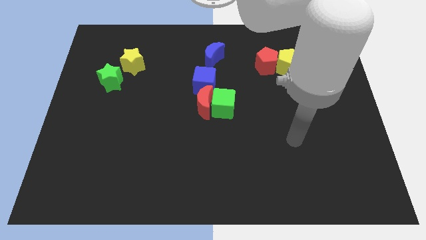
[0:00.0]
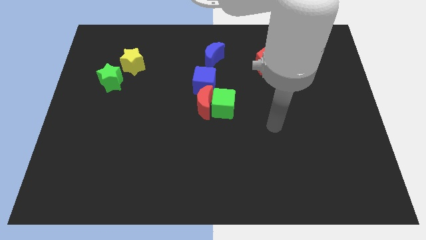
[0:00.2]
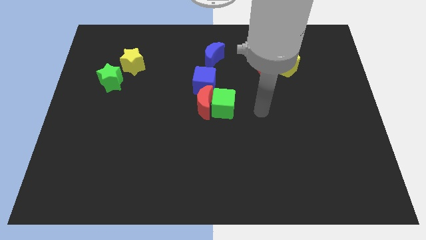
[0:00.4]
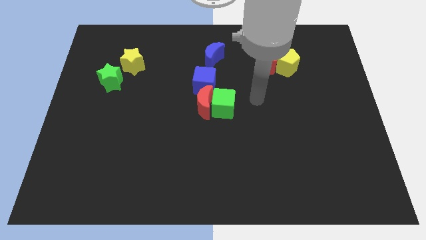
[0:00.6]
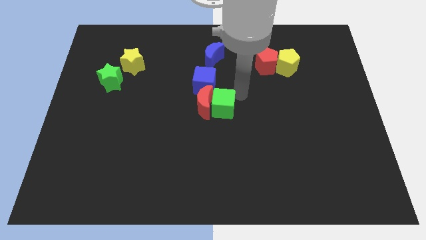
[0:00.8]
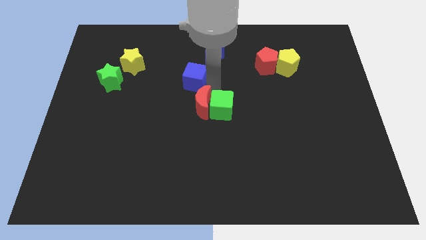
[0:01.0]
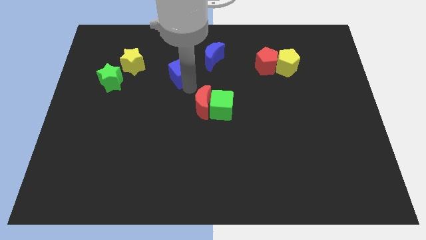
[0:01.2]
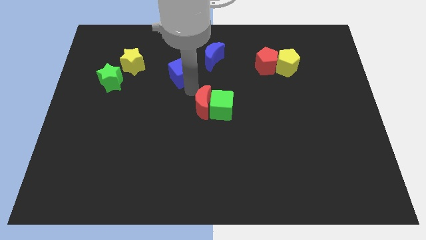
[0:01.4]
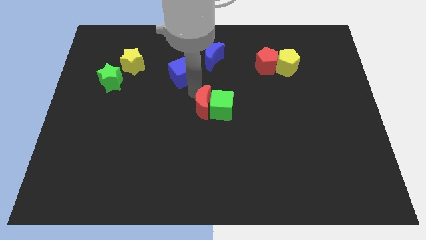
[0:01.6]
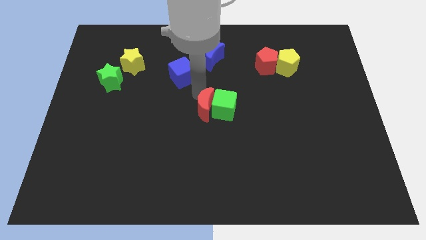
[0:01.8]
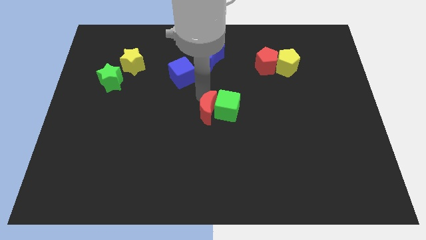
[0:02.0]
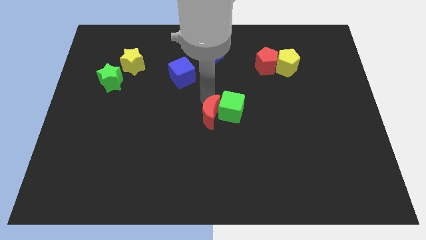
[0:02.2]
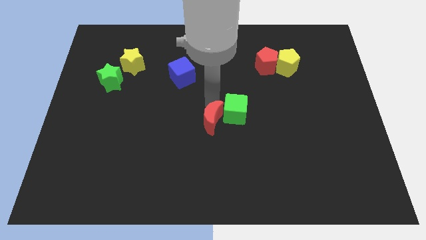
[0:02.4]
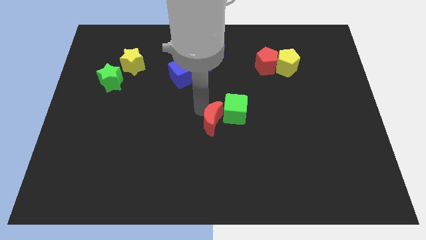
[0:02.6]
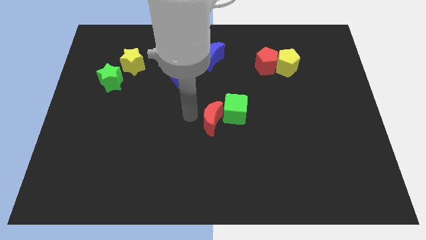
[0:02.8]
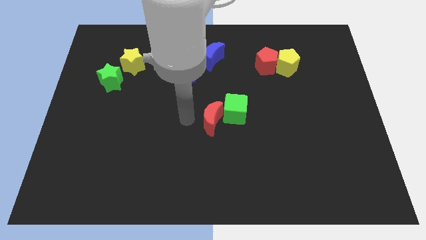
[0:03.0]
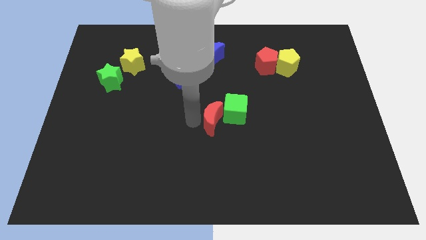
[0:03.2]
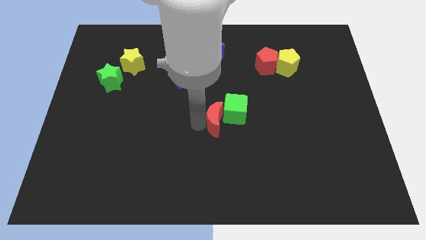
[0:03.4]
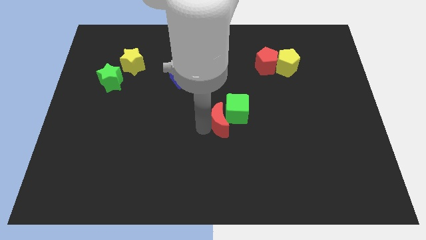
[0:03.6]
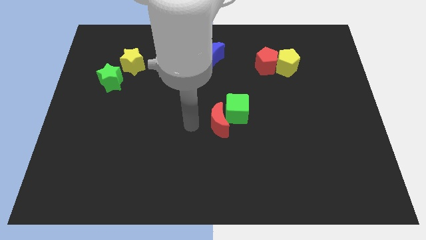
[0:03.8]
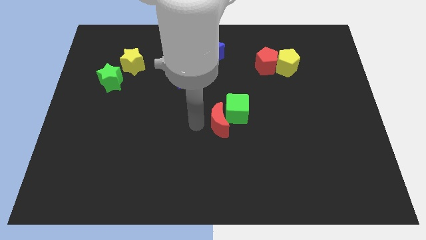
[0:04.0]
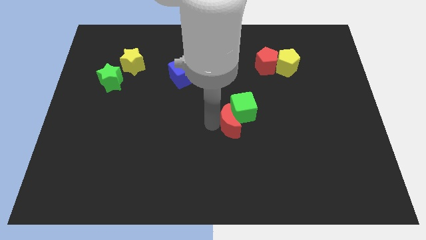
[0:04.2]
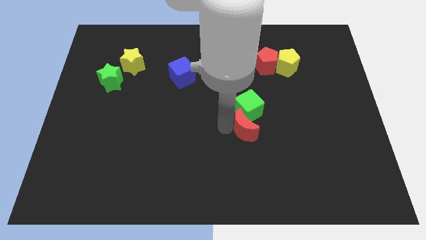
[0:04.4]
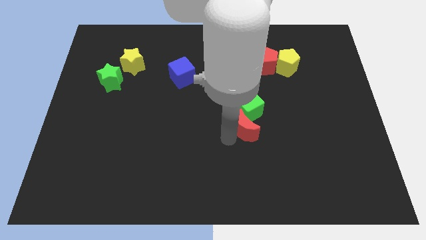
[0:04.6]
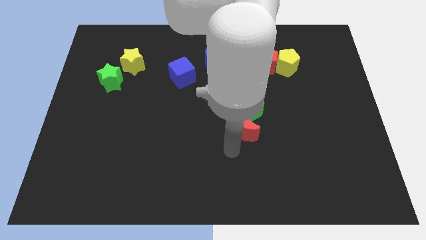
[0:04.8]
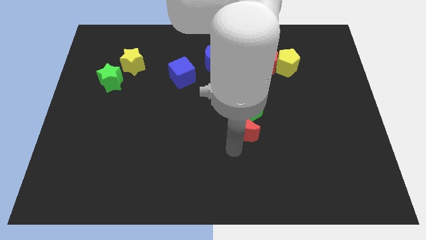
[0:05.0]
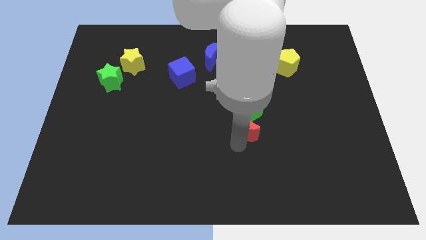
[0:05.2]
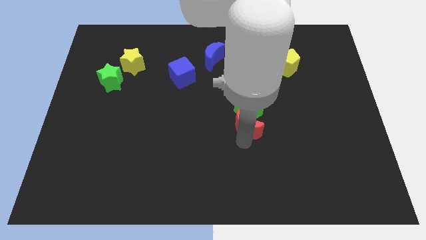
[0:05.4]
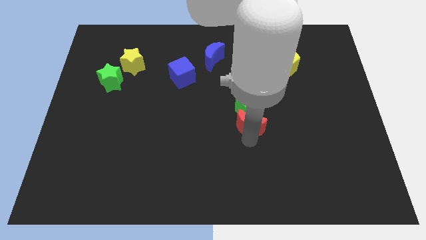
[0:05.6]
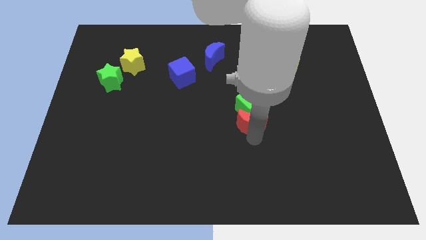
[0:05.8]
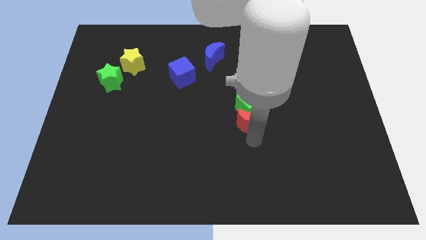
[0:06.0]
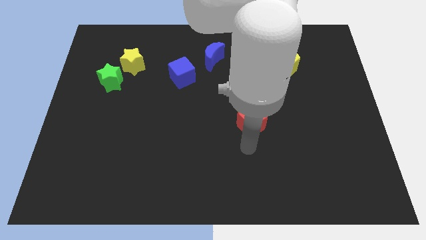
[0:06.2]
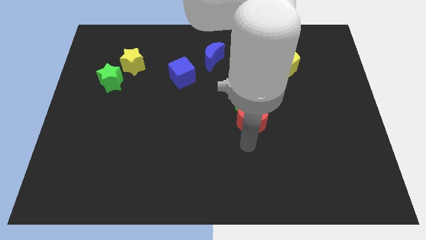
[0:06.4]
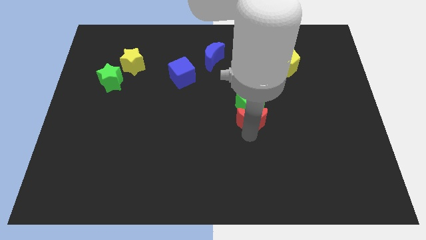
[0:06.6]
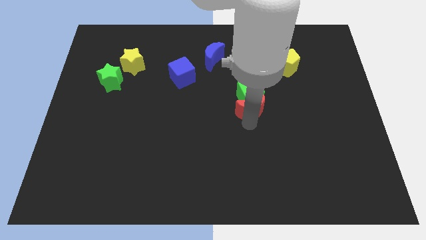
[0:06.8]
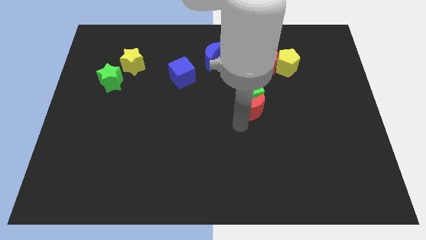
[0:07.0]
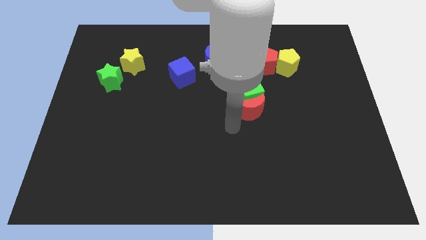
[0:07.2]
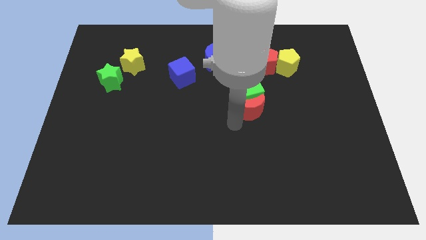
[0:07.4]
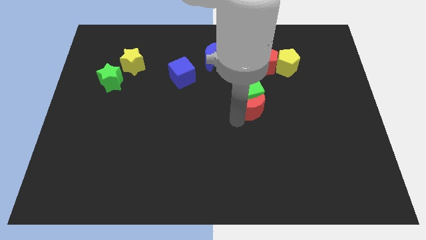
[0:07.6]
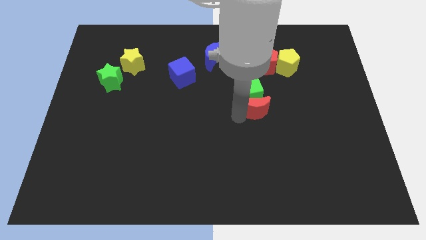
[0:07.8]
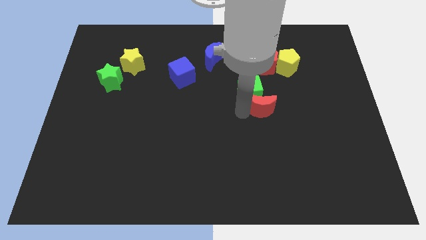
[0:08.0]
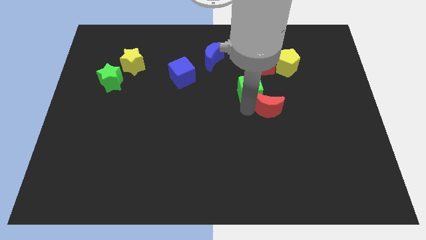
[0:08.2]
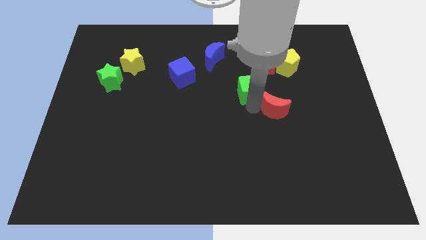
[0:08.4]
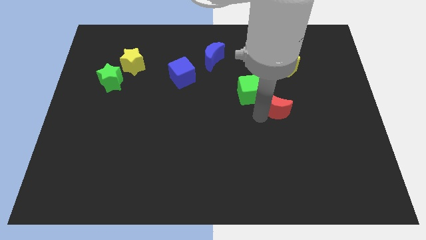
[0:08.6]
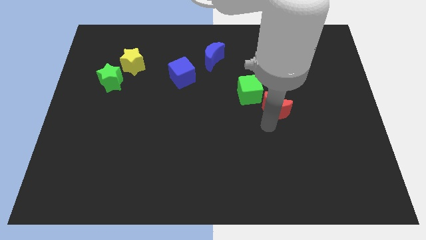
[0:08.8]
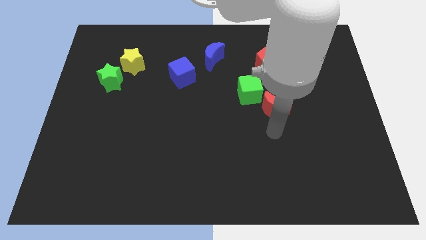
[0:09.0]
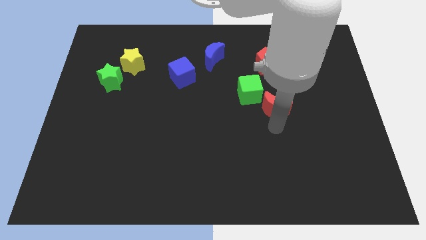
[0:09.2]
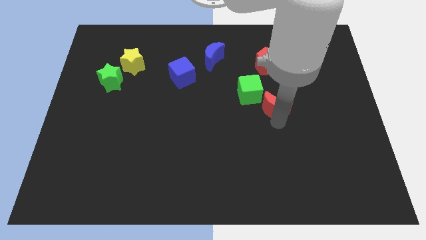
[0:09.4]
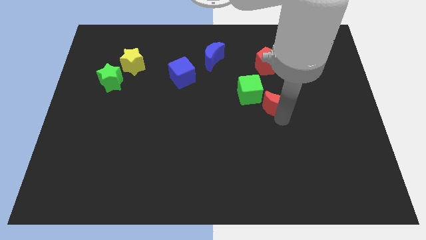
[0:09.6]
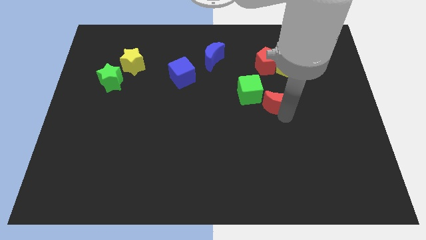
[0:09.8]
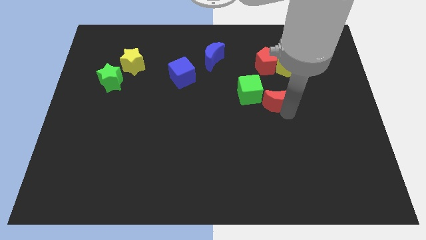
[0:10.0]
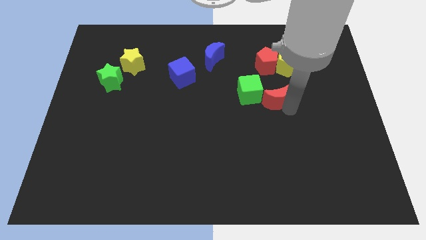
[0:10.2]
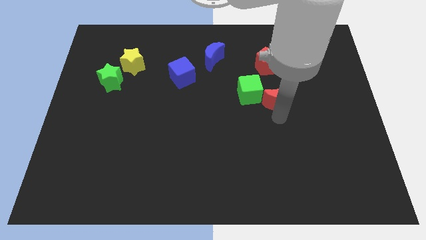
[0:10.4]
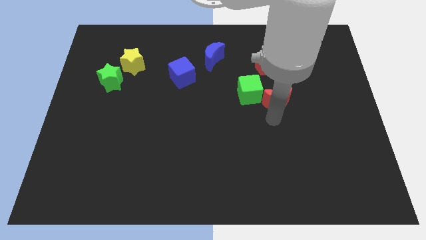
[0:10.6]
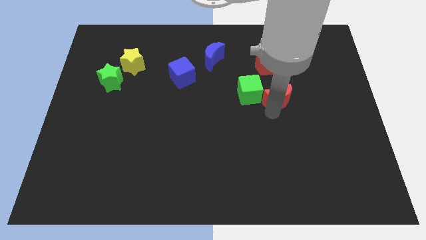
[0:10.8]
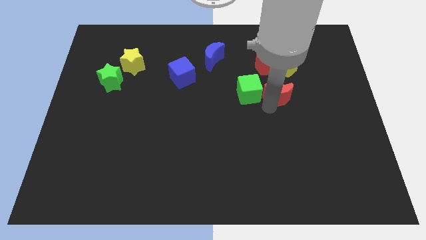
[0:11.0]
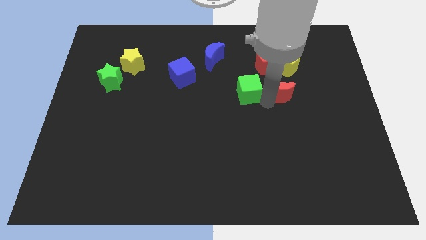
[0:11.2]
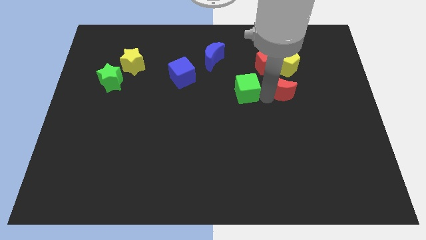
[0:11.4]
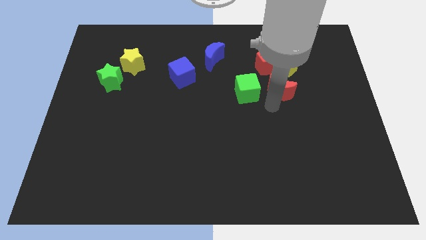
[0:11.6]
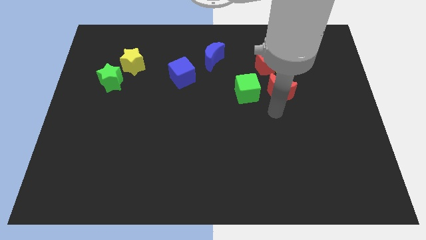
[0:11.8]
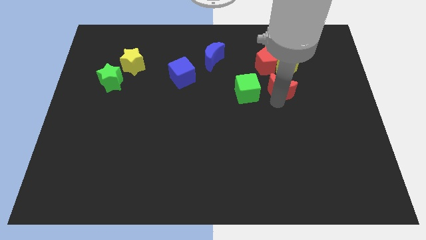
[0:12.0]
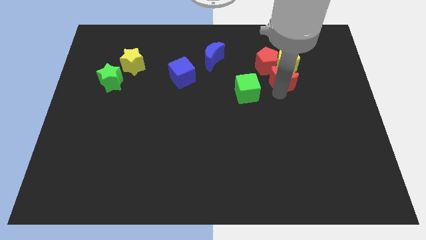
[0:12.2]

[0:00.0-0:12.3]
slide the red moon close to the yellow pentagon

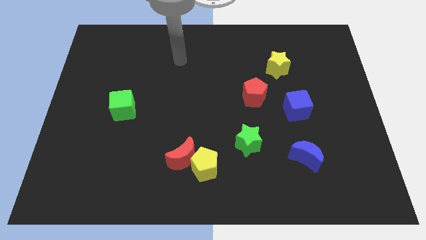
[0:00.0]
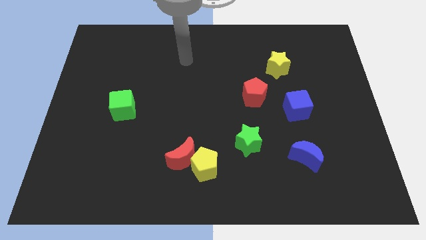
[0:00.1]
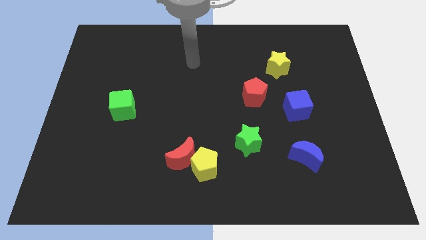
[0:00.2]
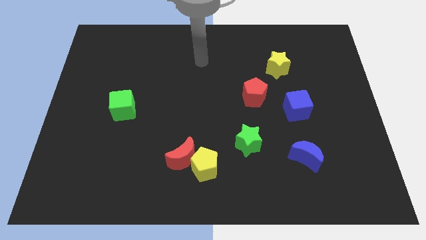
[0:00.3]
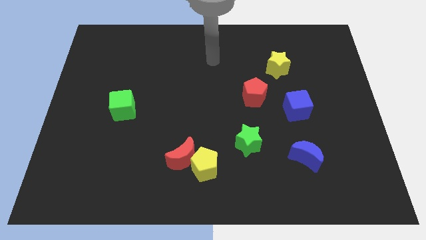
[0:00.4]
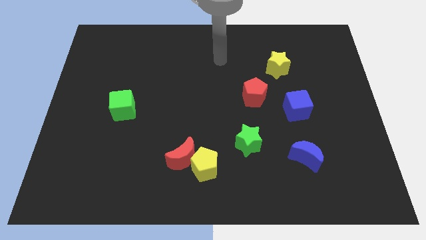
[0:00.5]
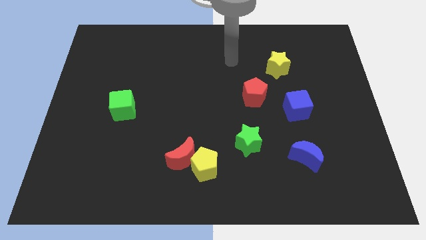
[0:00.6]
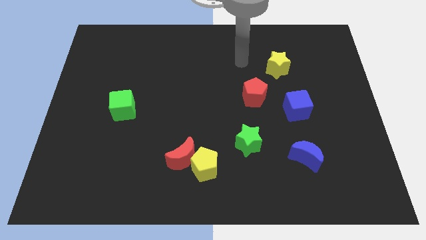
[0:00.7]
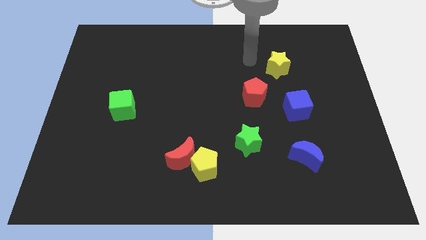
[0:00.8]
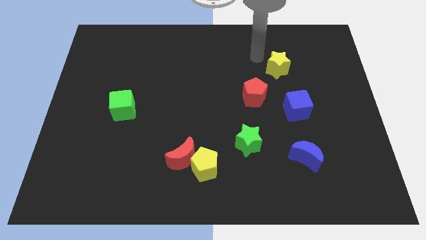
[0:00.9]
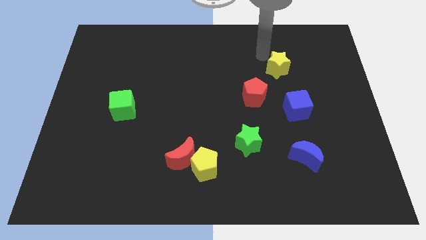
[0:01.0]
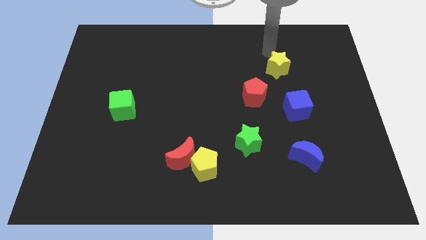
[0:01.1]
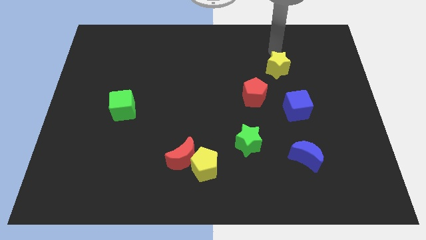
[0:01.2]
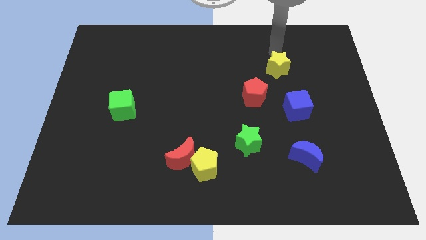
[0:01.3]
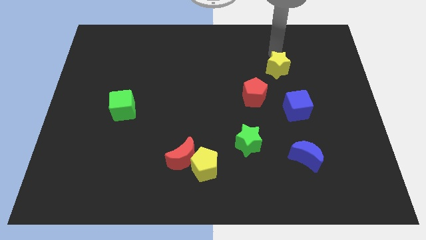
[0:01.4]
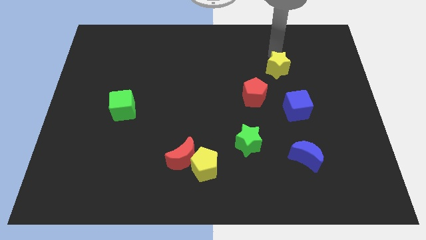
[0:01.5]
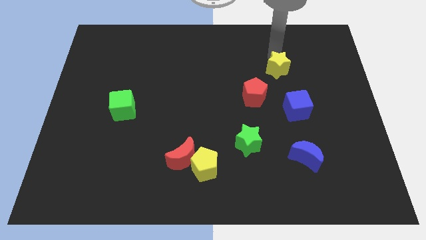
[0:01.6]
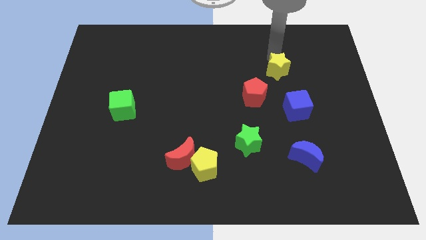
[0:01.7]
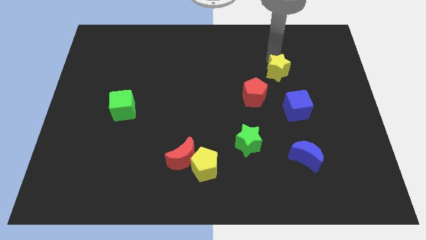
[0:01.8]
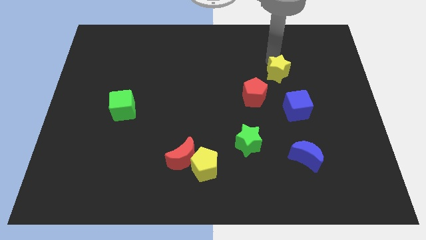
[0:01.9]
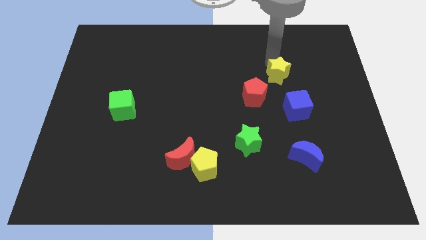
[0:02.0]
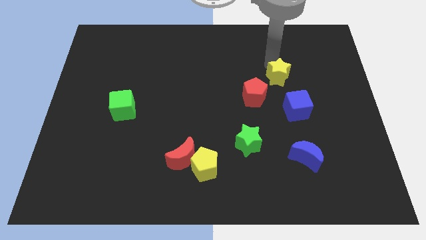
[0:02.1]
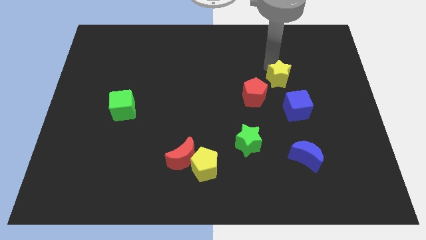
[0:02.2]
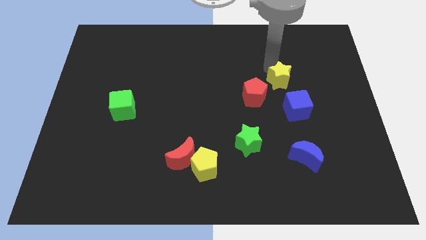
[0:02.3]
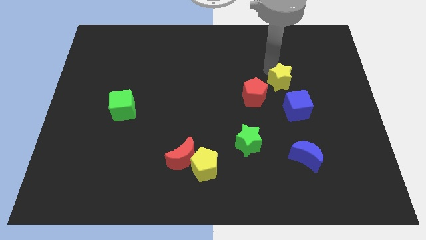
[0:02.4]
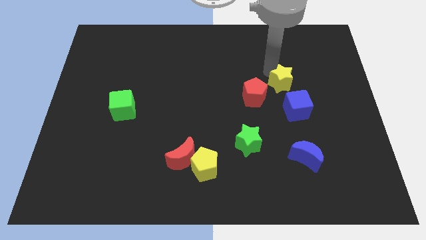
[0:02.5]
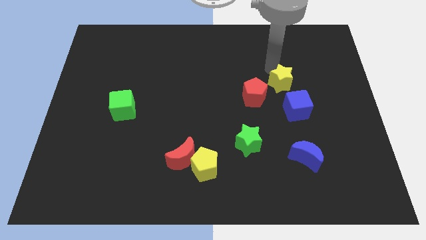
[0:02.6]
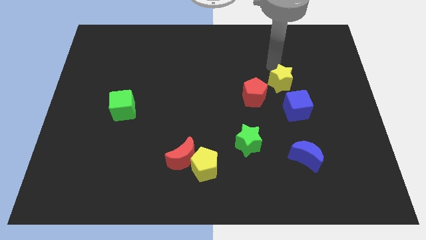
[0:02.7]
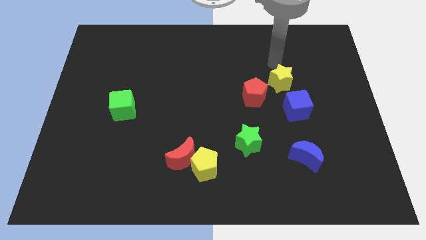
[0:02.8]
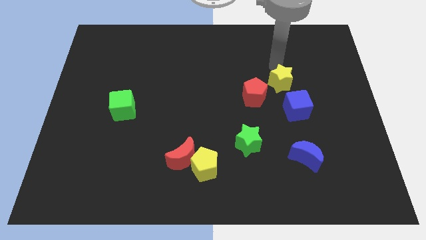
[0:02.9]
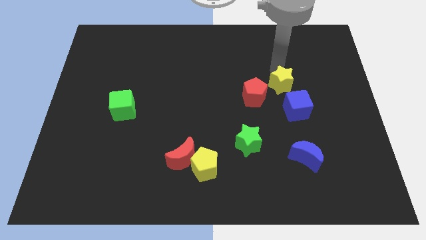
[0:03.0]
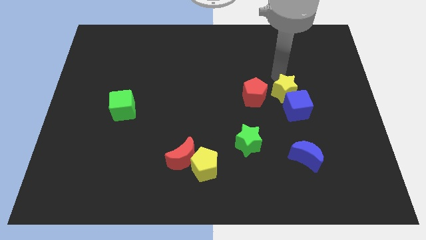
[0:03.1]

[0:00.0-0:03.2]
push the yellow star close to the blue cube
